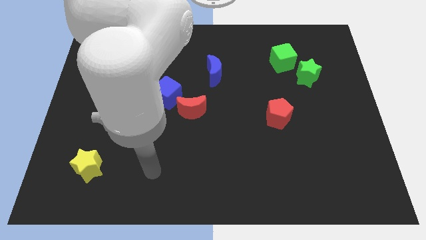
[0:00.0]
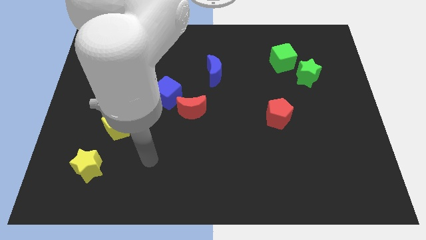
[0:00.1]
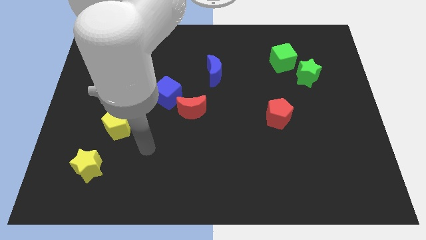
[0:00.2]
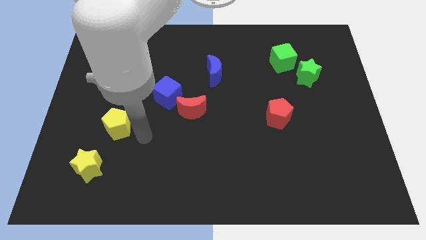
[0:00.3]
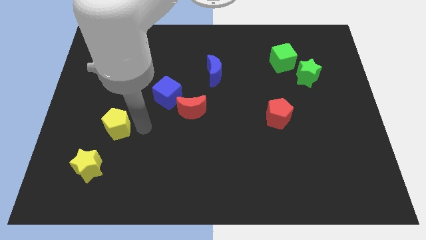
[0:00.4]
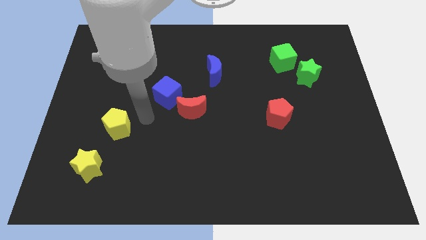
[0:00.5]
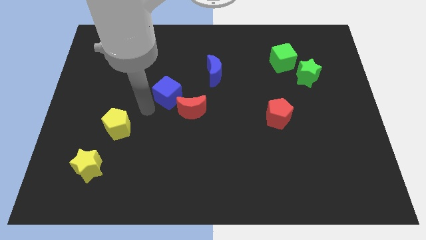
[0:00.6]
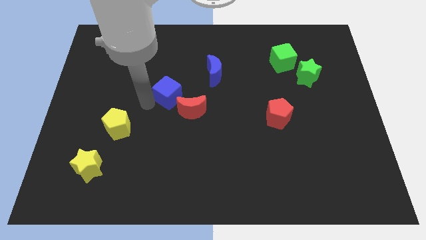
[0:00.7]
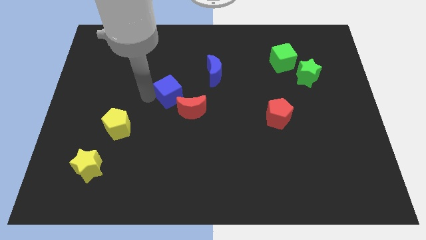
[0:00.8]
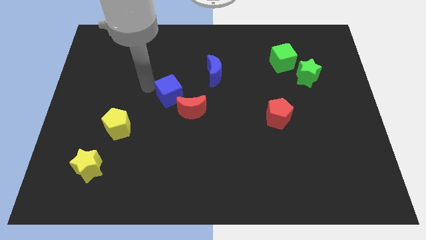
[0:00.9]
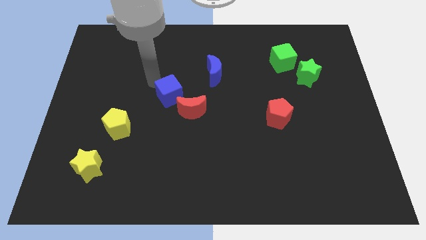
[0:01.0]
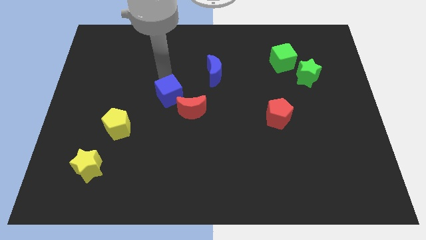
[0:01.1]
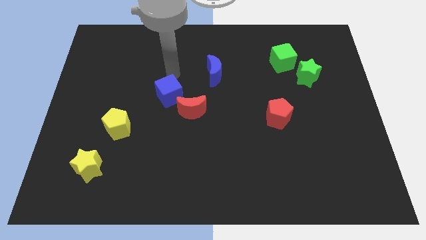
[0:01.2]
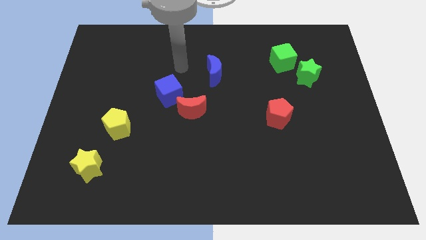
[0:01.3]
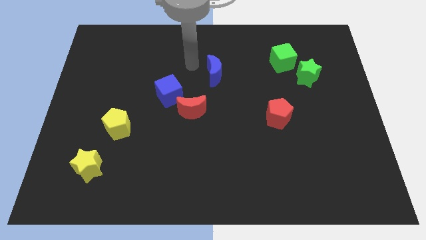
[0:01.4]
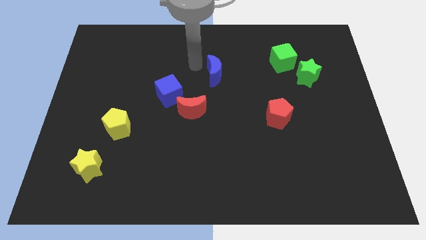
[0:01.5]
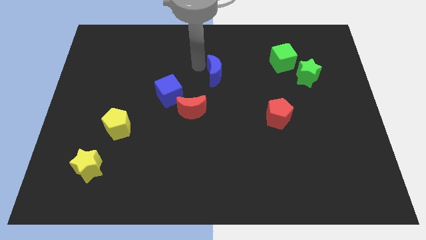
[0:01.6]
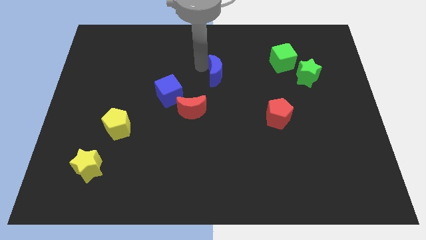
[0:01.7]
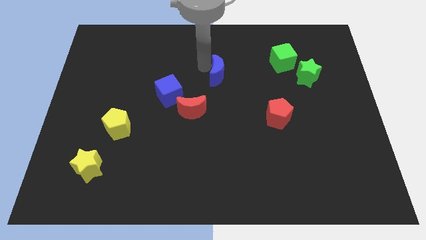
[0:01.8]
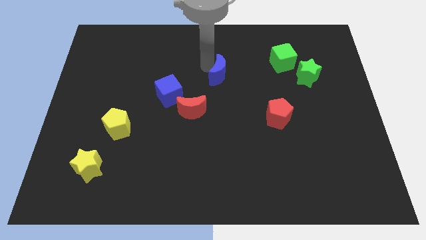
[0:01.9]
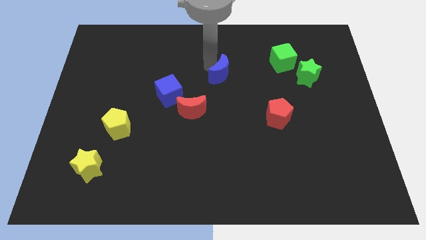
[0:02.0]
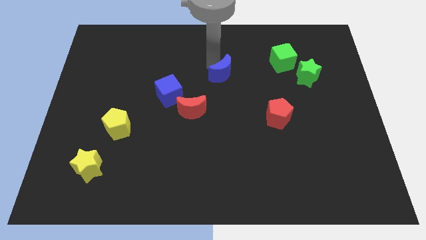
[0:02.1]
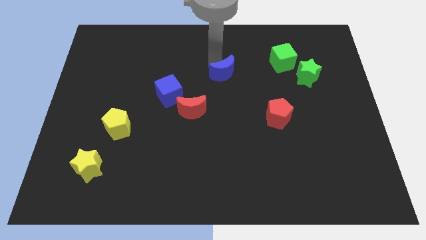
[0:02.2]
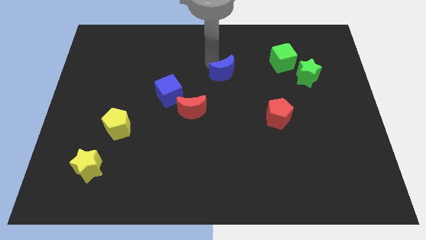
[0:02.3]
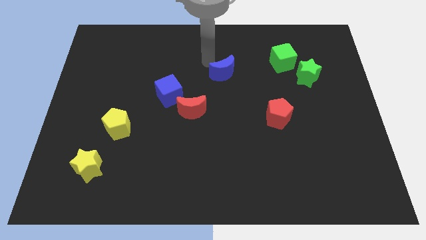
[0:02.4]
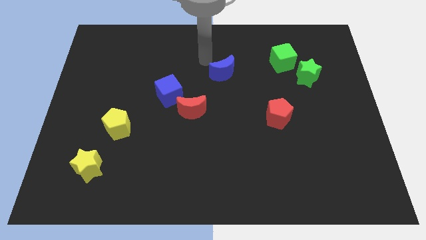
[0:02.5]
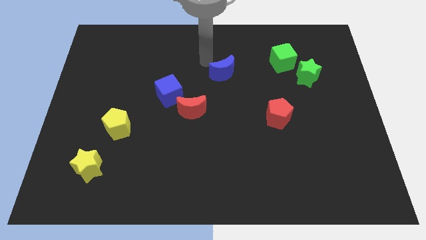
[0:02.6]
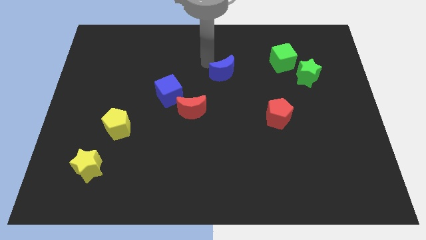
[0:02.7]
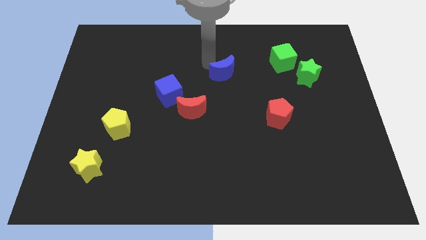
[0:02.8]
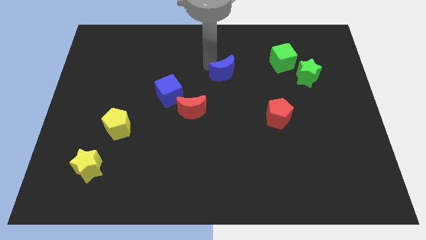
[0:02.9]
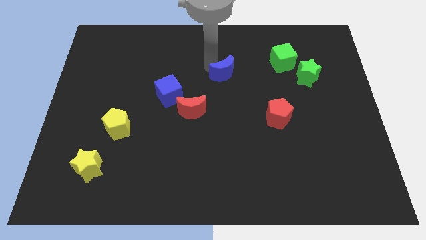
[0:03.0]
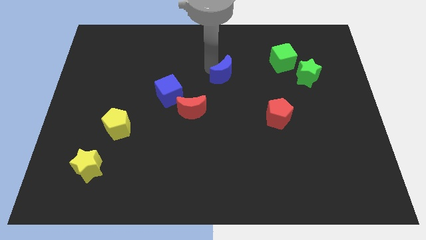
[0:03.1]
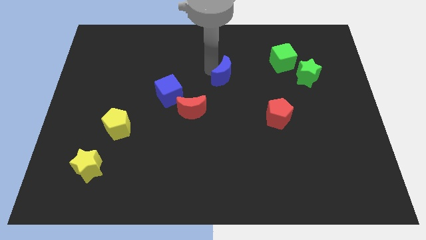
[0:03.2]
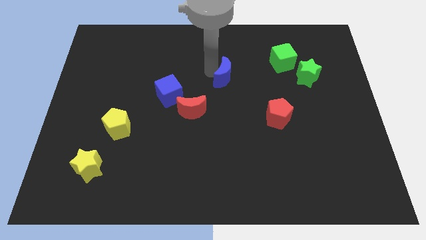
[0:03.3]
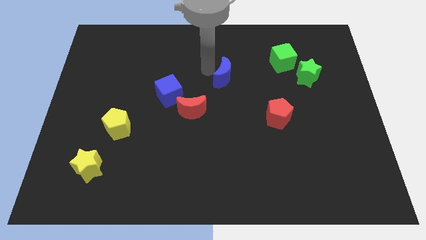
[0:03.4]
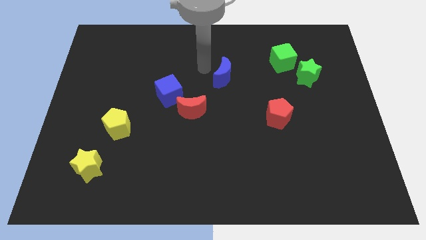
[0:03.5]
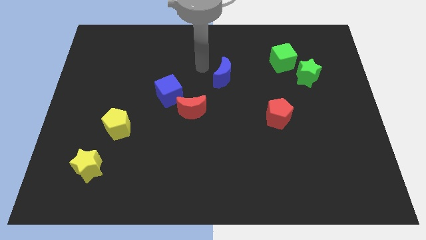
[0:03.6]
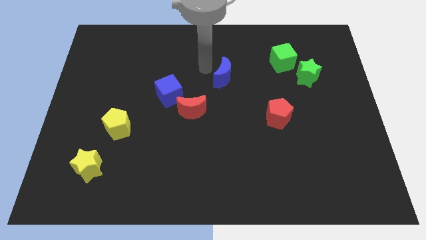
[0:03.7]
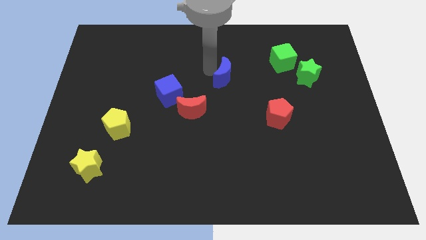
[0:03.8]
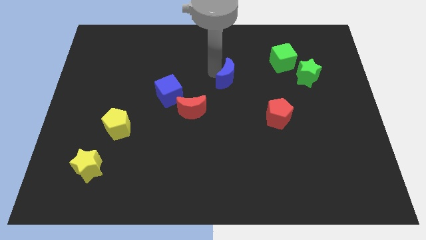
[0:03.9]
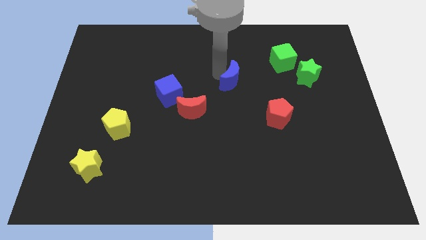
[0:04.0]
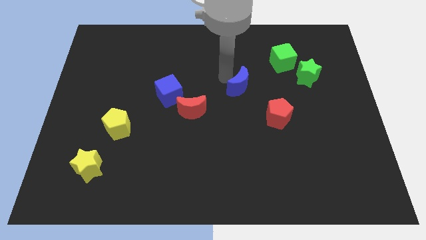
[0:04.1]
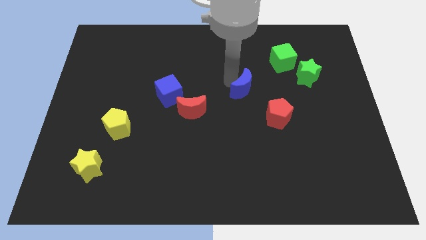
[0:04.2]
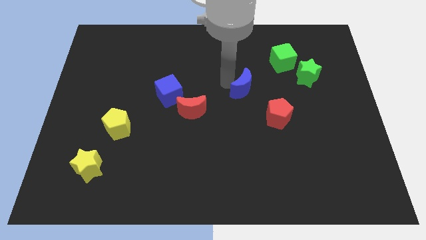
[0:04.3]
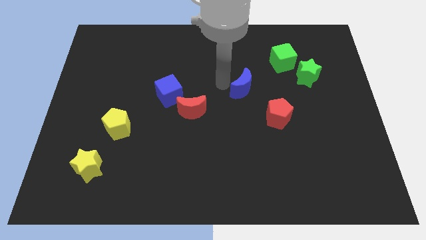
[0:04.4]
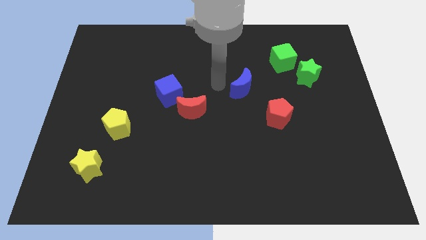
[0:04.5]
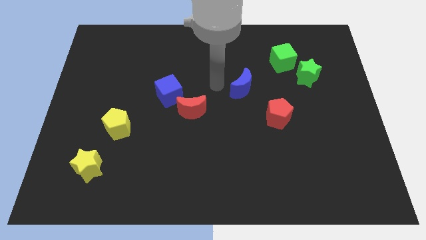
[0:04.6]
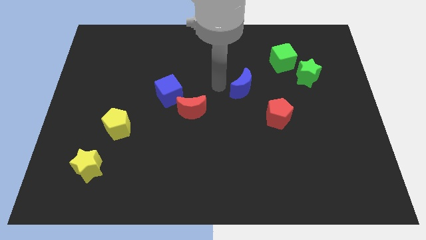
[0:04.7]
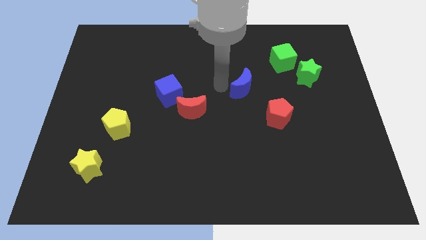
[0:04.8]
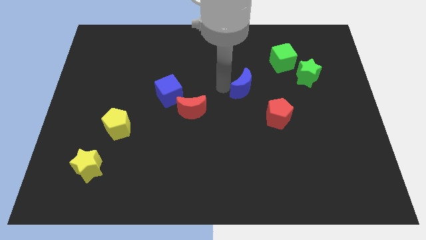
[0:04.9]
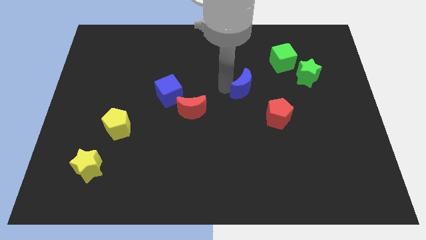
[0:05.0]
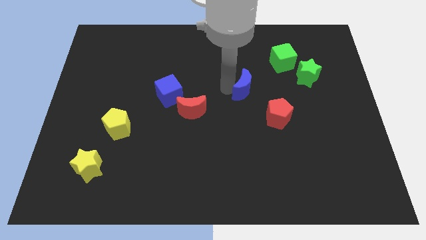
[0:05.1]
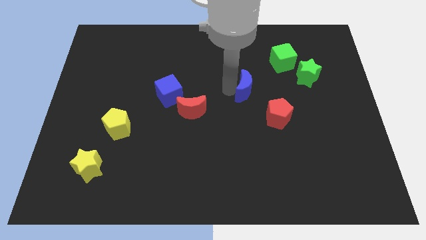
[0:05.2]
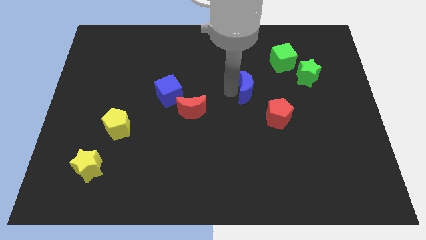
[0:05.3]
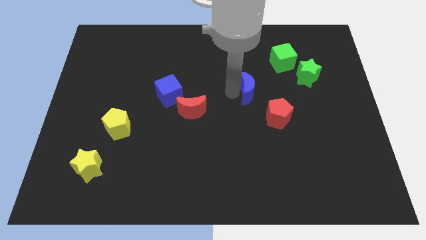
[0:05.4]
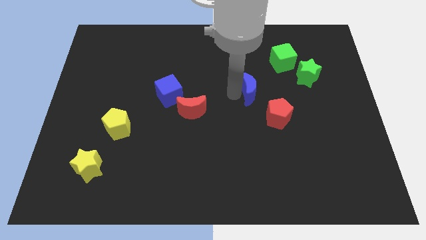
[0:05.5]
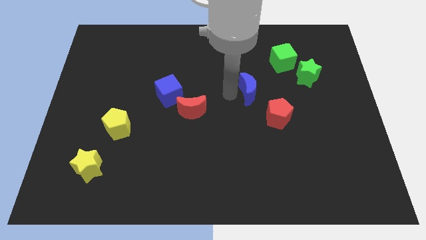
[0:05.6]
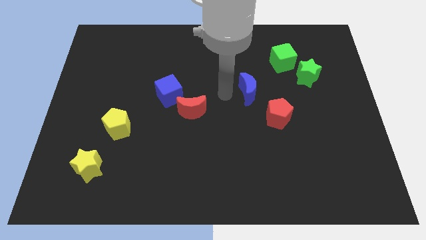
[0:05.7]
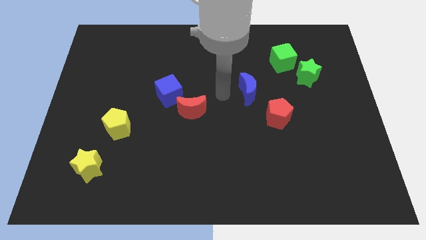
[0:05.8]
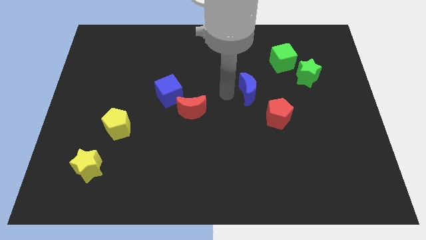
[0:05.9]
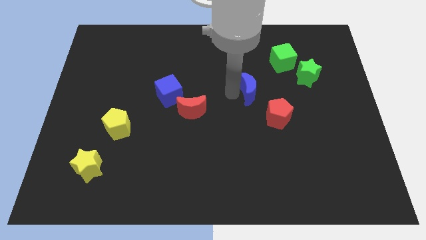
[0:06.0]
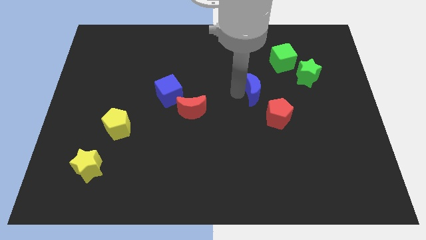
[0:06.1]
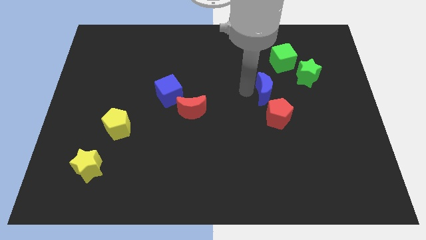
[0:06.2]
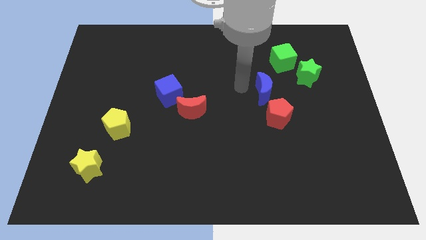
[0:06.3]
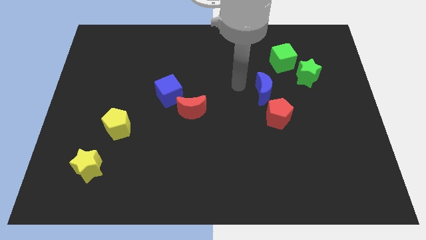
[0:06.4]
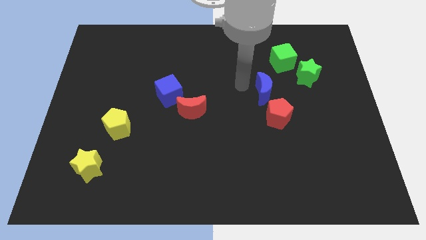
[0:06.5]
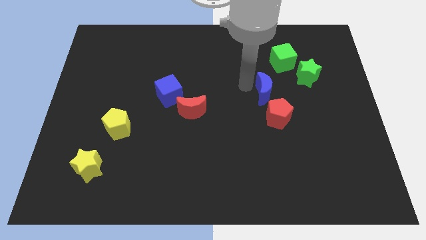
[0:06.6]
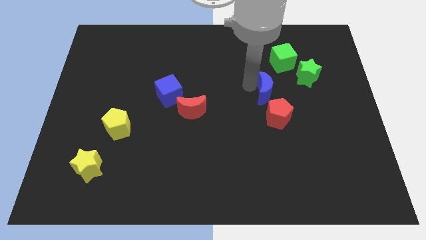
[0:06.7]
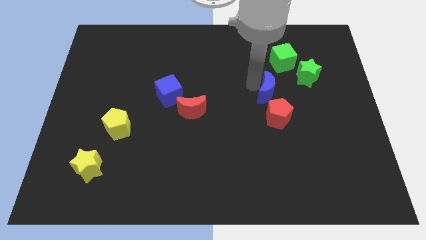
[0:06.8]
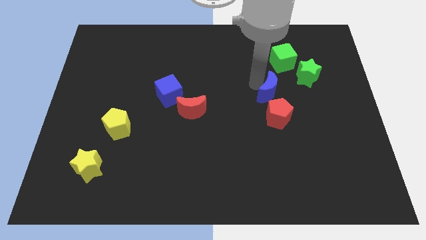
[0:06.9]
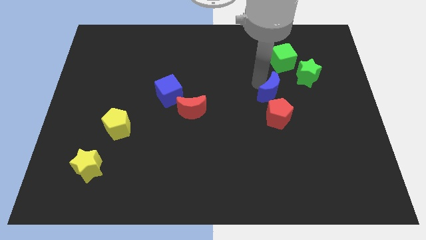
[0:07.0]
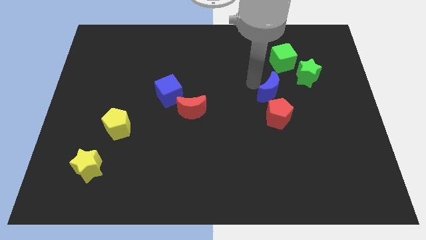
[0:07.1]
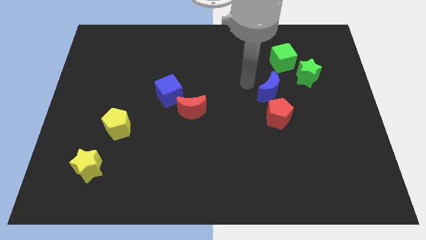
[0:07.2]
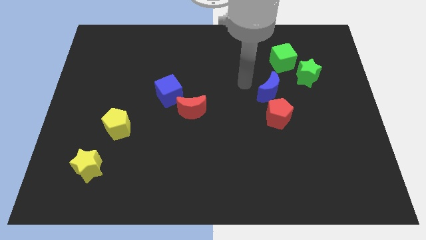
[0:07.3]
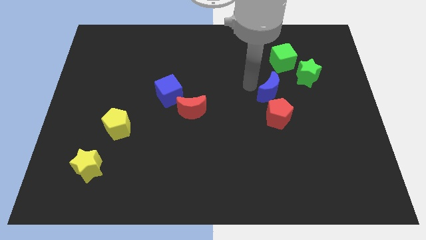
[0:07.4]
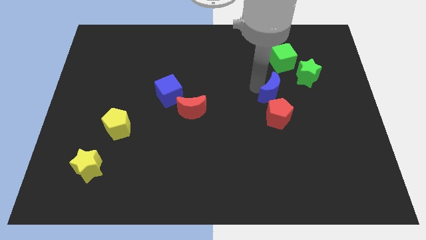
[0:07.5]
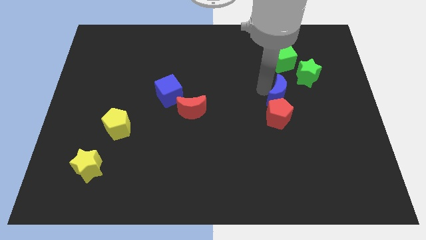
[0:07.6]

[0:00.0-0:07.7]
put the blue moon to the top right side of the red pentagon
